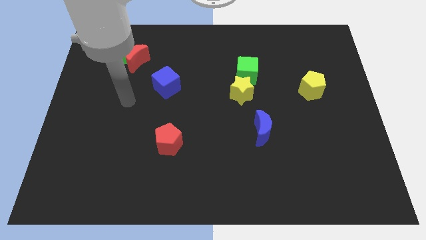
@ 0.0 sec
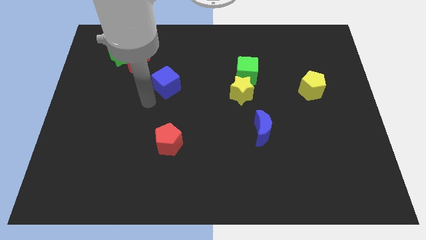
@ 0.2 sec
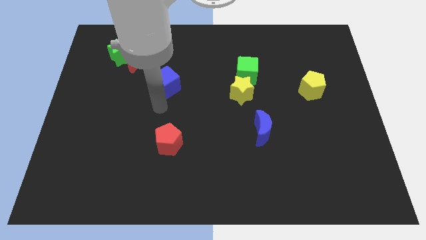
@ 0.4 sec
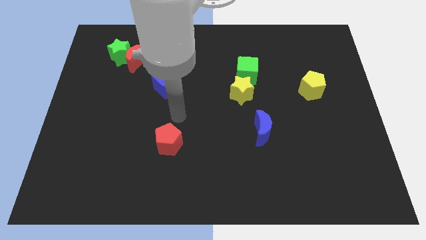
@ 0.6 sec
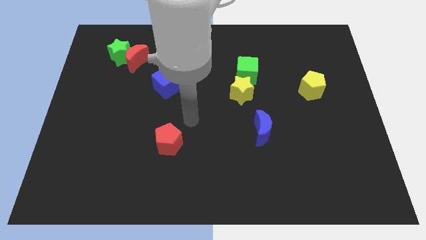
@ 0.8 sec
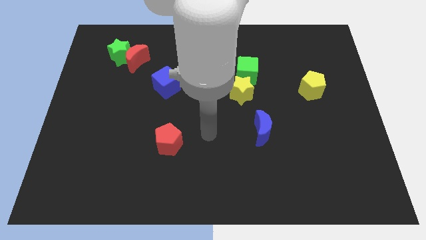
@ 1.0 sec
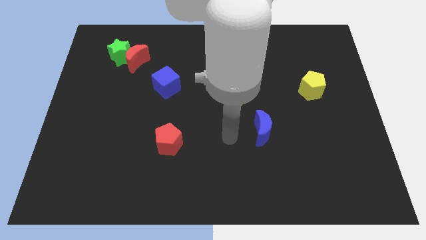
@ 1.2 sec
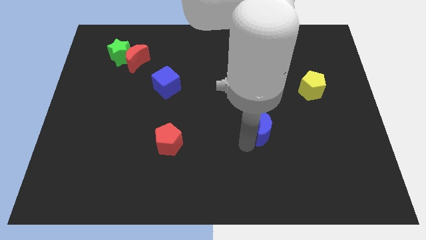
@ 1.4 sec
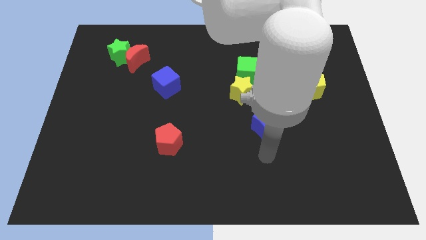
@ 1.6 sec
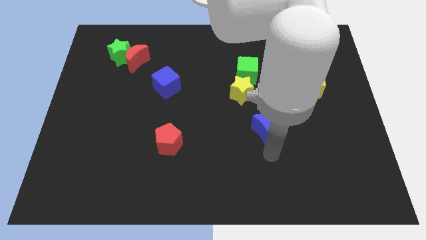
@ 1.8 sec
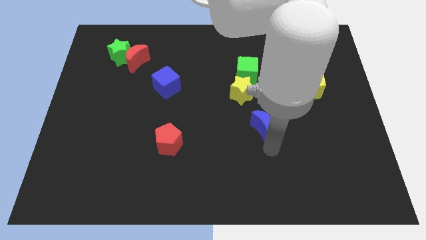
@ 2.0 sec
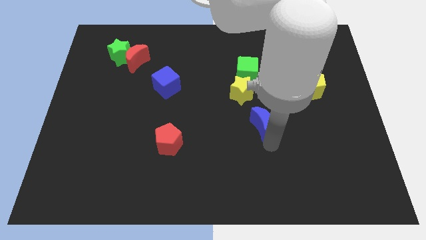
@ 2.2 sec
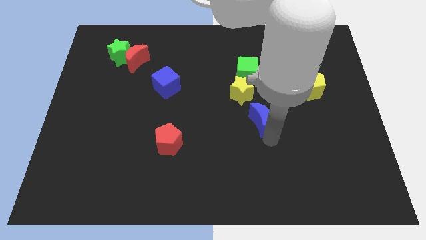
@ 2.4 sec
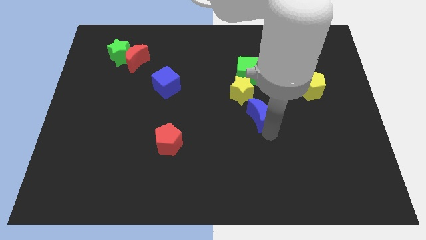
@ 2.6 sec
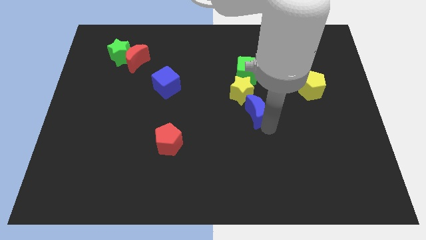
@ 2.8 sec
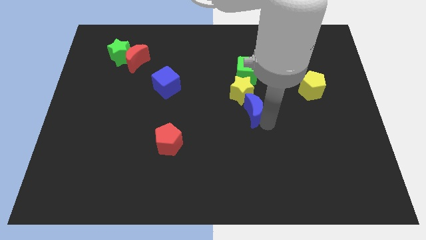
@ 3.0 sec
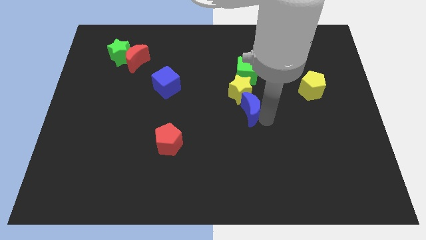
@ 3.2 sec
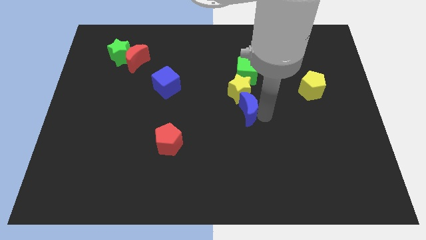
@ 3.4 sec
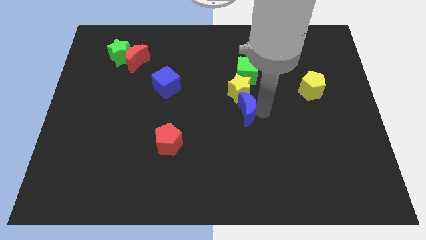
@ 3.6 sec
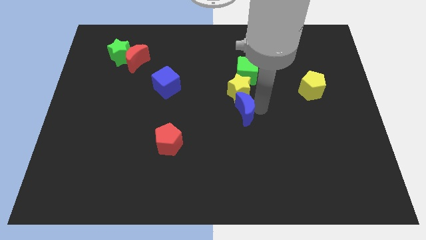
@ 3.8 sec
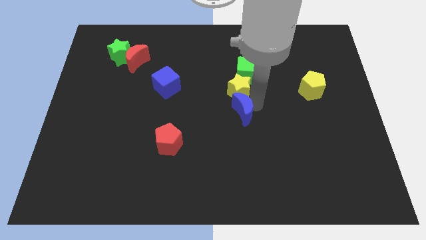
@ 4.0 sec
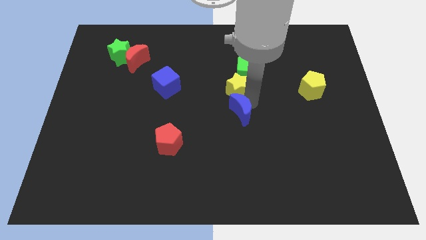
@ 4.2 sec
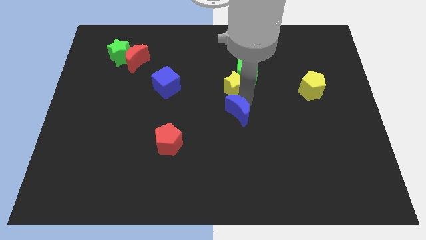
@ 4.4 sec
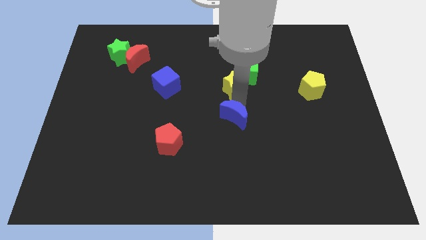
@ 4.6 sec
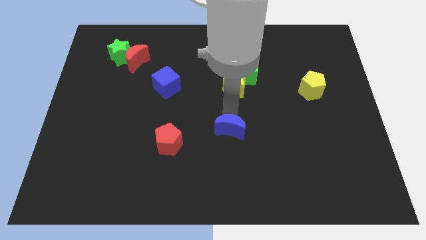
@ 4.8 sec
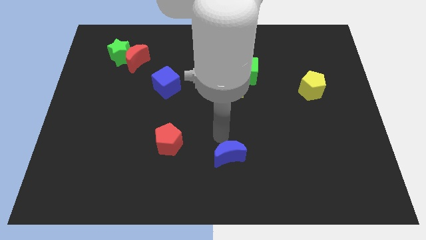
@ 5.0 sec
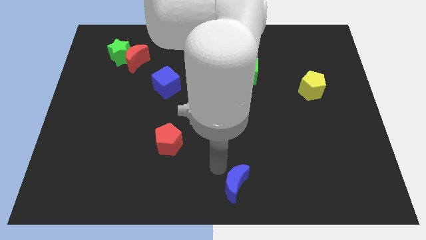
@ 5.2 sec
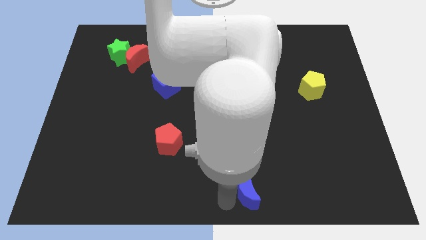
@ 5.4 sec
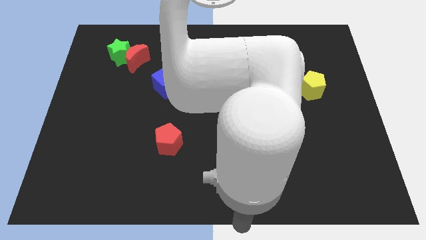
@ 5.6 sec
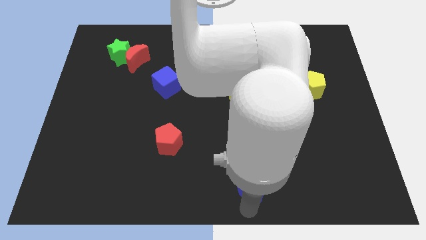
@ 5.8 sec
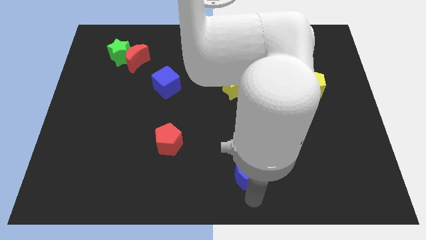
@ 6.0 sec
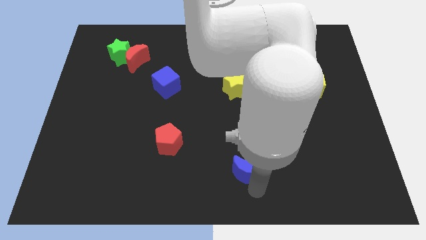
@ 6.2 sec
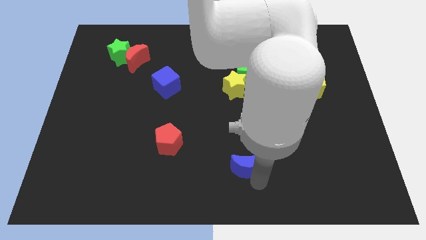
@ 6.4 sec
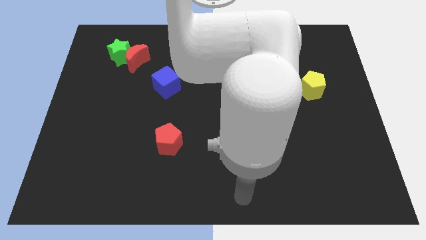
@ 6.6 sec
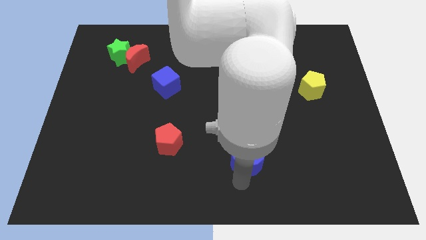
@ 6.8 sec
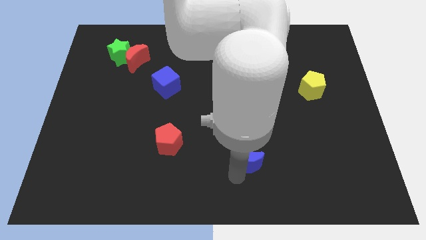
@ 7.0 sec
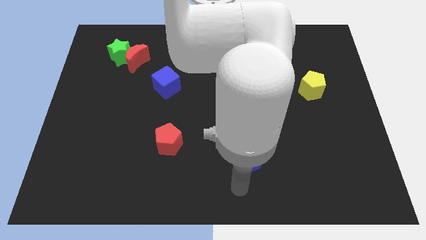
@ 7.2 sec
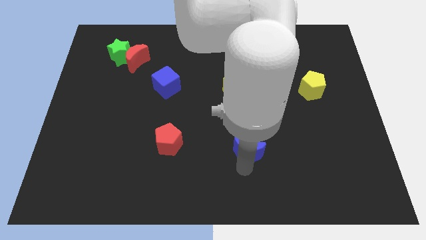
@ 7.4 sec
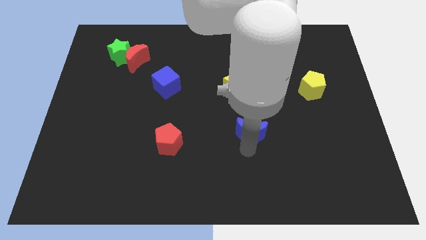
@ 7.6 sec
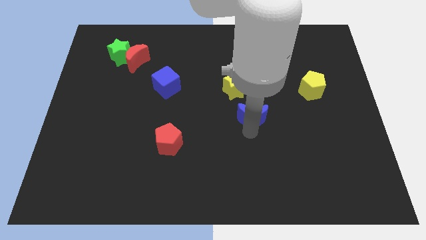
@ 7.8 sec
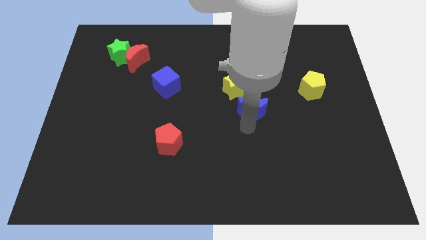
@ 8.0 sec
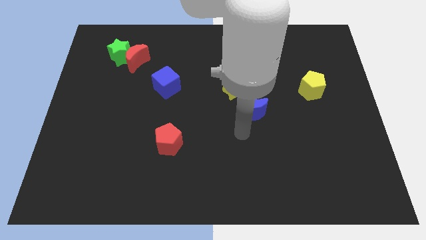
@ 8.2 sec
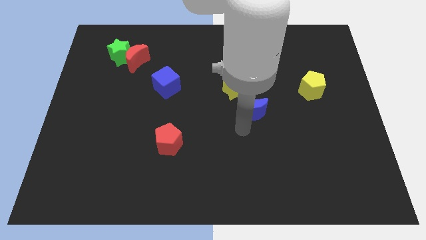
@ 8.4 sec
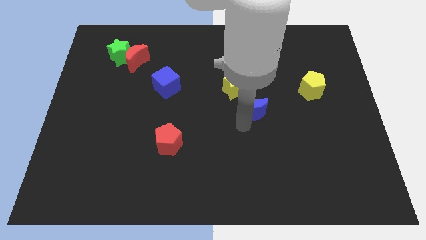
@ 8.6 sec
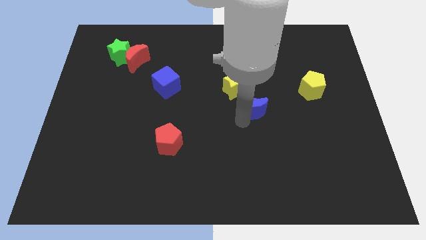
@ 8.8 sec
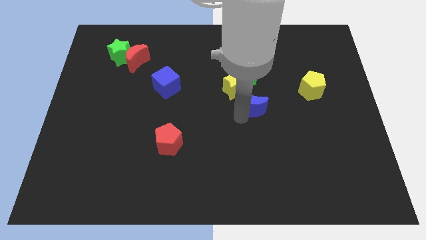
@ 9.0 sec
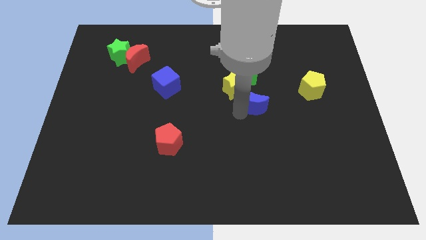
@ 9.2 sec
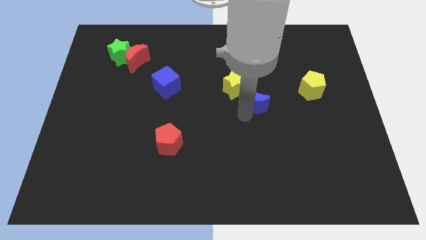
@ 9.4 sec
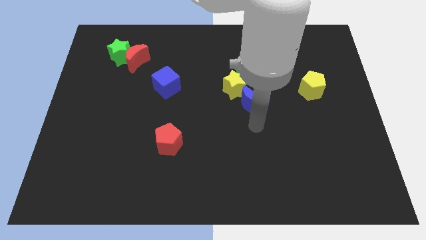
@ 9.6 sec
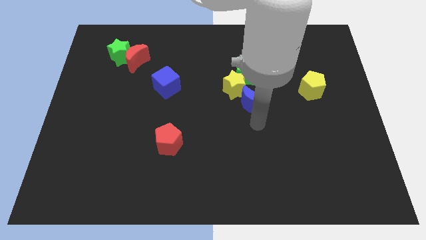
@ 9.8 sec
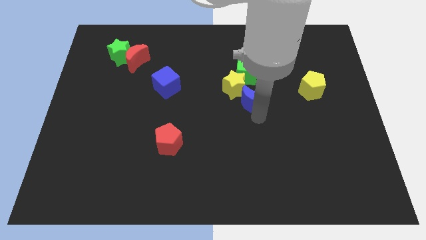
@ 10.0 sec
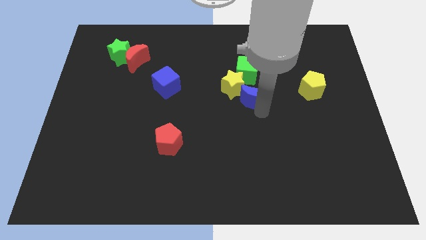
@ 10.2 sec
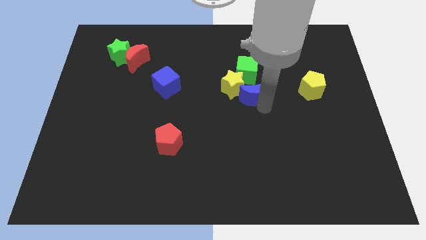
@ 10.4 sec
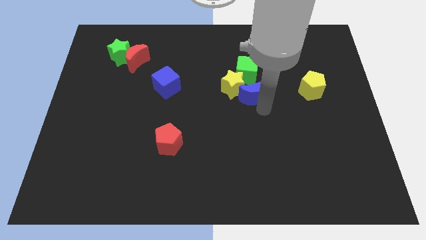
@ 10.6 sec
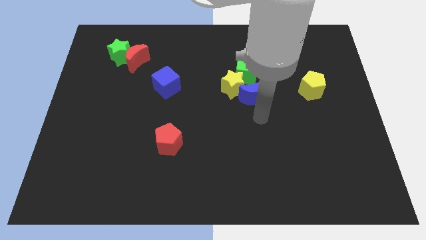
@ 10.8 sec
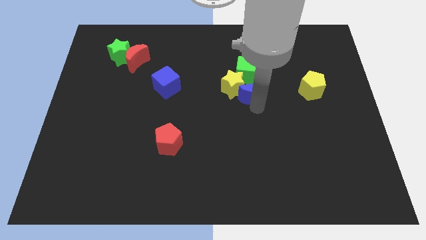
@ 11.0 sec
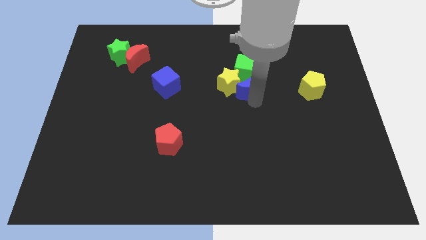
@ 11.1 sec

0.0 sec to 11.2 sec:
push the blue moon close to the green cube

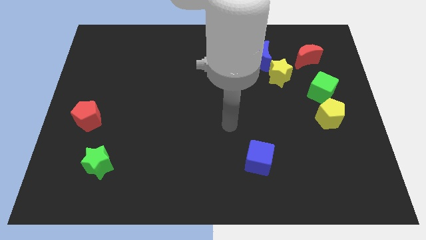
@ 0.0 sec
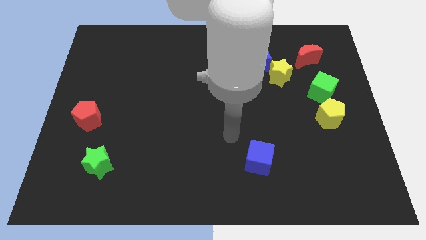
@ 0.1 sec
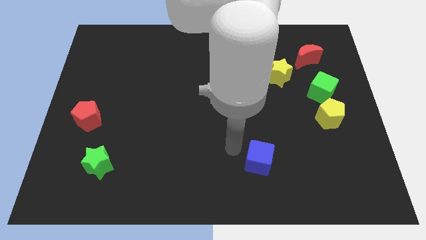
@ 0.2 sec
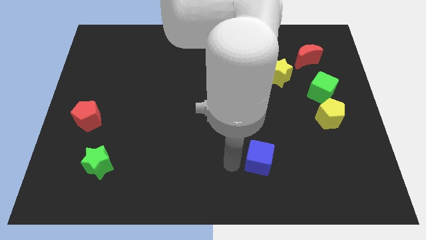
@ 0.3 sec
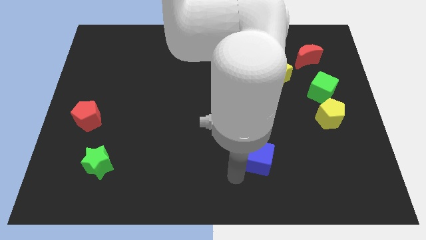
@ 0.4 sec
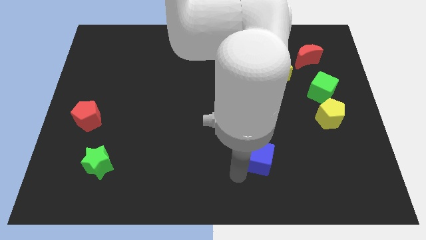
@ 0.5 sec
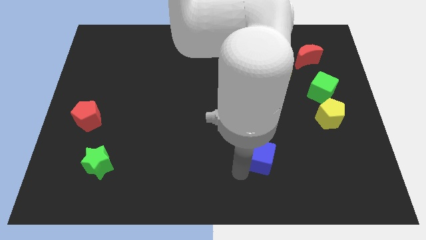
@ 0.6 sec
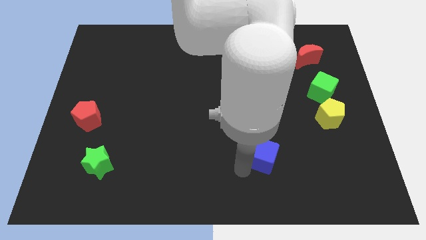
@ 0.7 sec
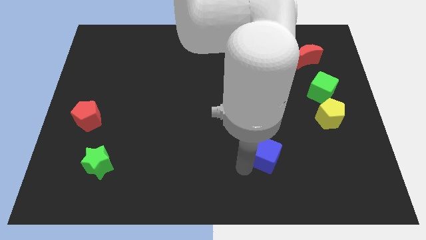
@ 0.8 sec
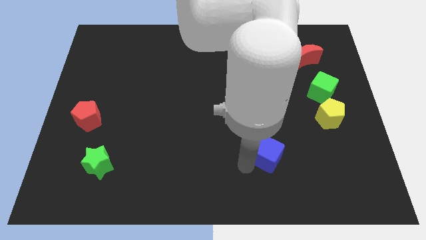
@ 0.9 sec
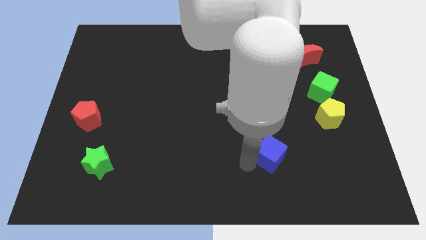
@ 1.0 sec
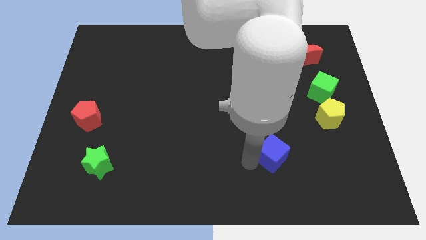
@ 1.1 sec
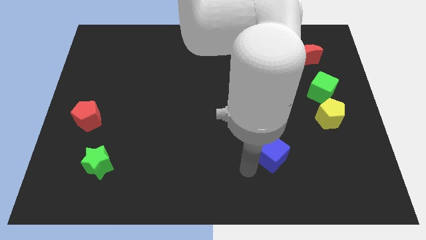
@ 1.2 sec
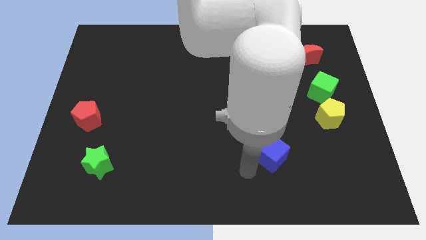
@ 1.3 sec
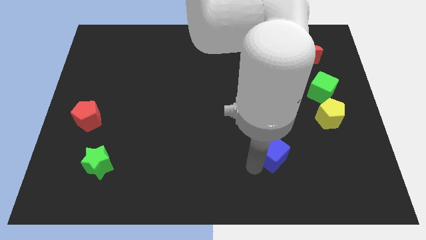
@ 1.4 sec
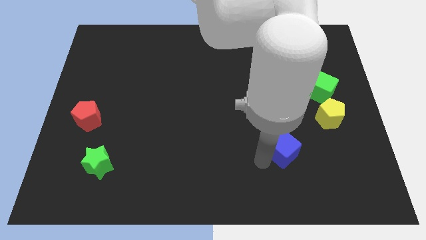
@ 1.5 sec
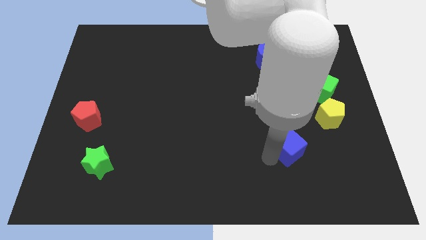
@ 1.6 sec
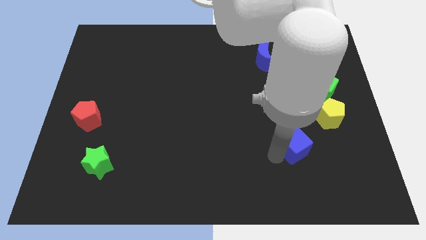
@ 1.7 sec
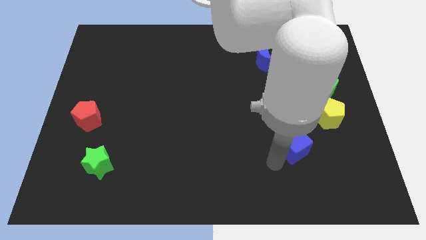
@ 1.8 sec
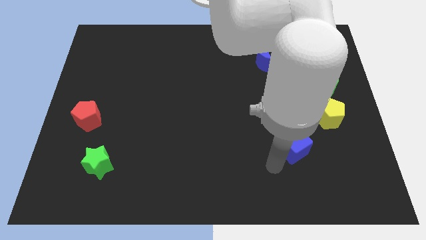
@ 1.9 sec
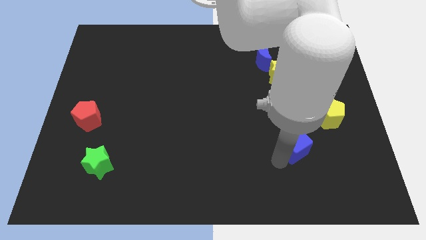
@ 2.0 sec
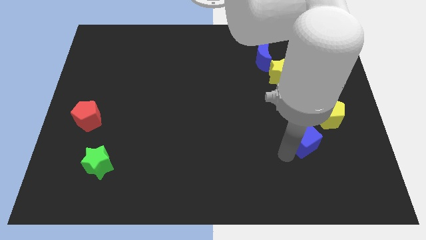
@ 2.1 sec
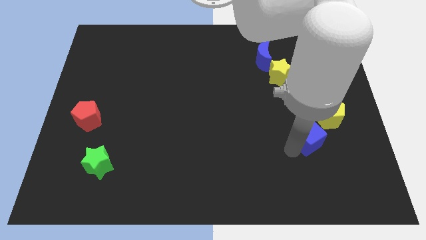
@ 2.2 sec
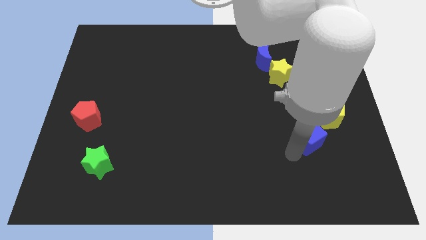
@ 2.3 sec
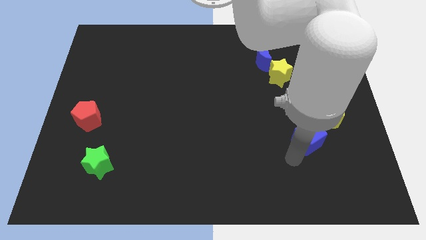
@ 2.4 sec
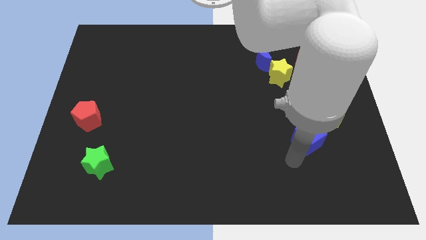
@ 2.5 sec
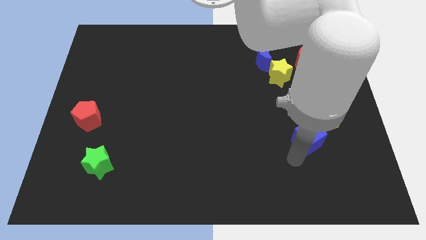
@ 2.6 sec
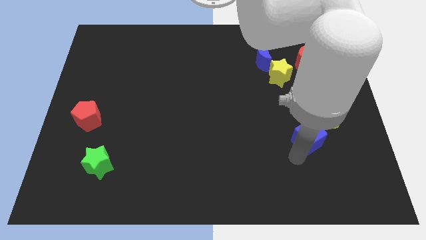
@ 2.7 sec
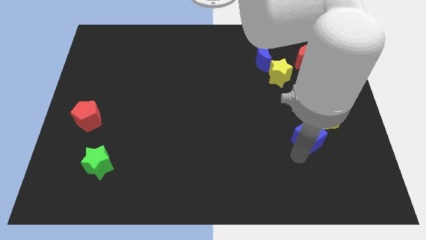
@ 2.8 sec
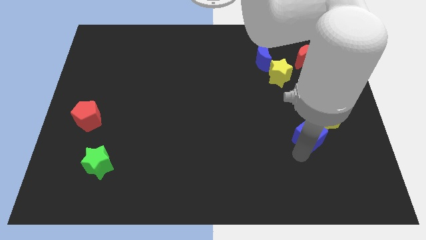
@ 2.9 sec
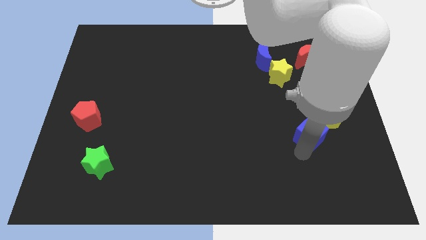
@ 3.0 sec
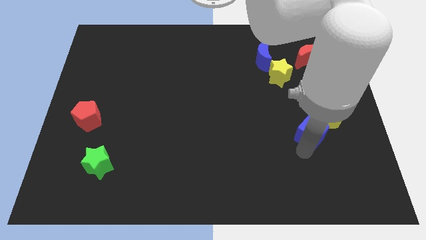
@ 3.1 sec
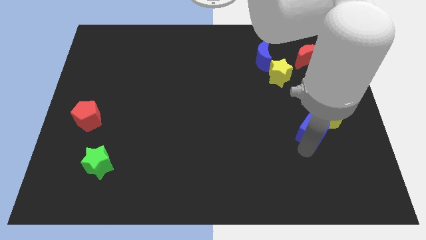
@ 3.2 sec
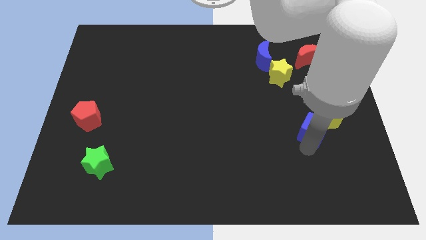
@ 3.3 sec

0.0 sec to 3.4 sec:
move the blue cube close to the yellow pentagon
